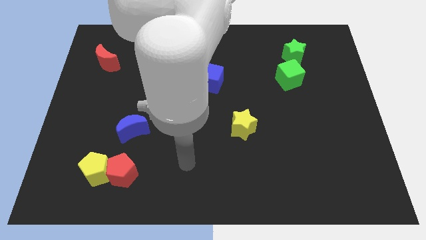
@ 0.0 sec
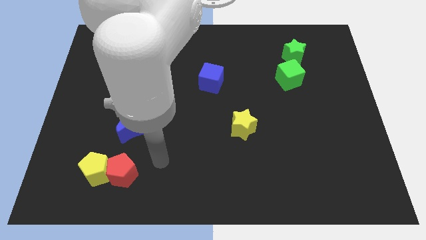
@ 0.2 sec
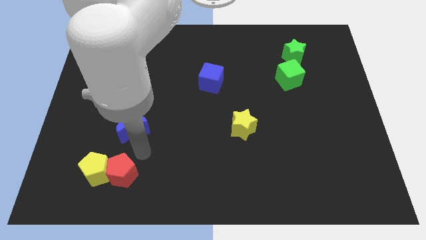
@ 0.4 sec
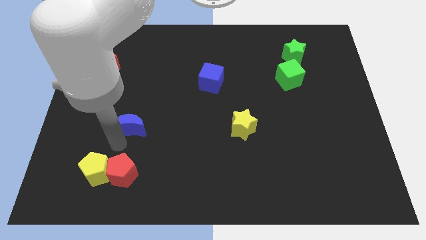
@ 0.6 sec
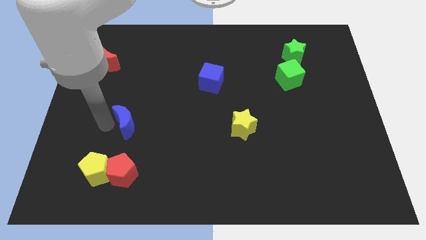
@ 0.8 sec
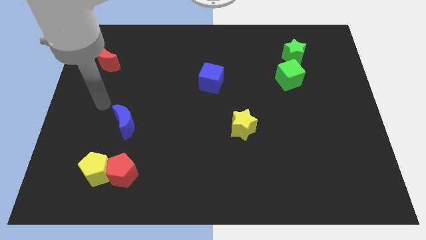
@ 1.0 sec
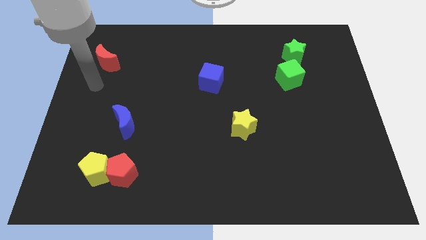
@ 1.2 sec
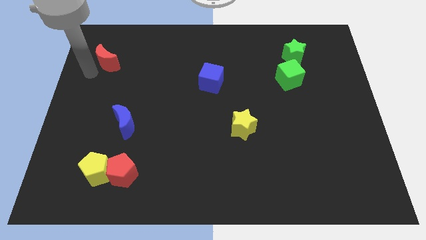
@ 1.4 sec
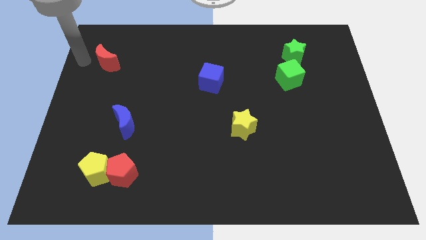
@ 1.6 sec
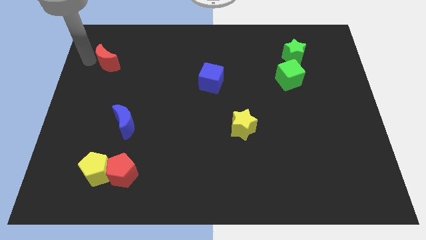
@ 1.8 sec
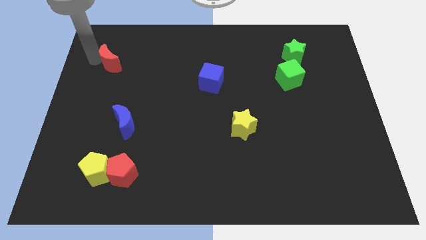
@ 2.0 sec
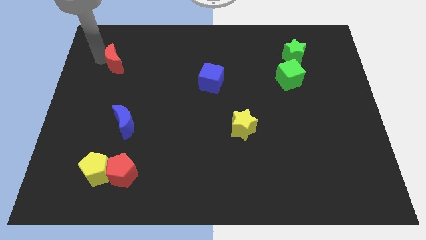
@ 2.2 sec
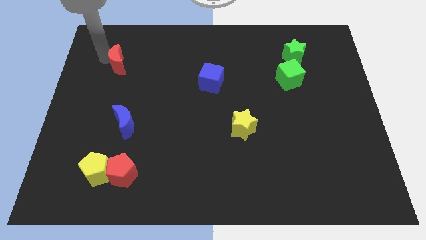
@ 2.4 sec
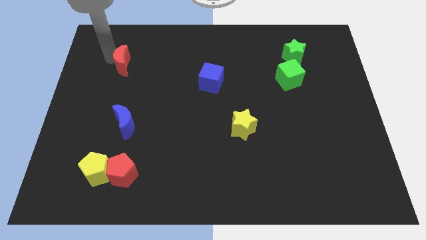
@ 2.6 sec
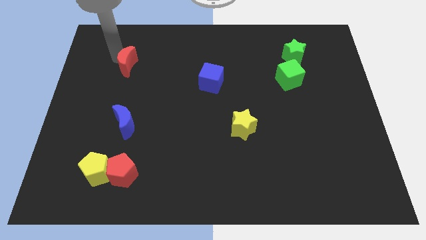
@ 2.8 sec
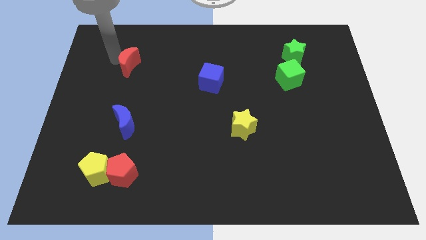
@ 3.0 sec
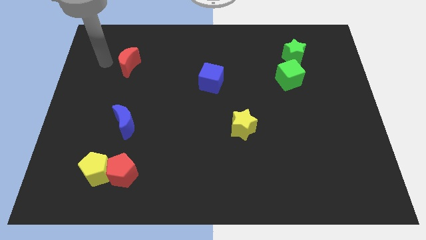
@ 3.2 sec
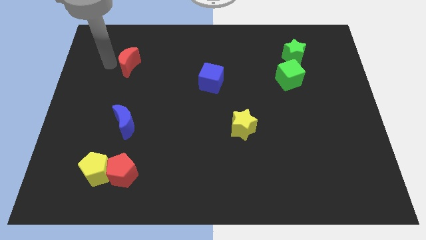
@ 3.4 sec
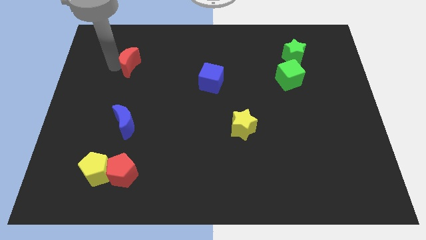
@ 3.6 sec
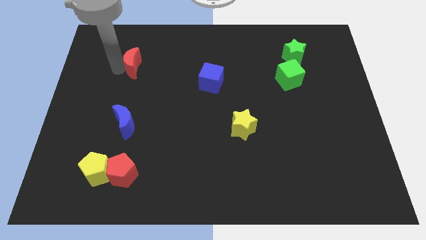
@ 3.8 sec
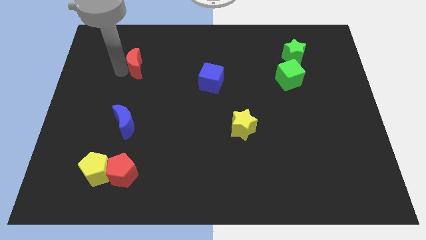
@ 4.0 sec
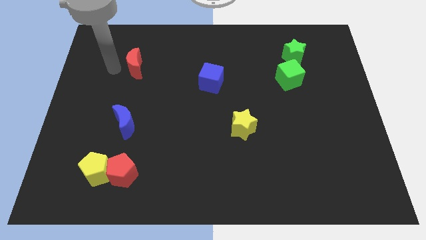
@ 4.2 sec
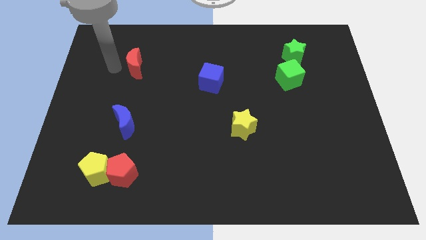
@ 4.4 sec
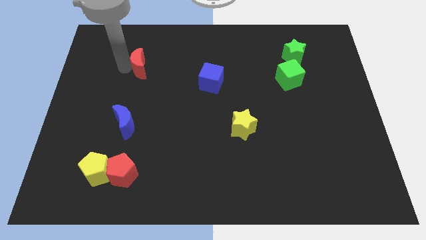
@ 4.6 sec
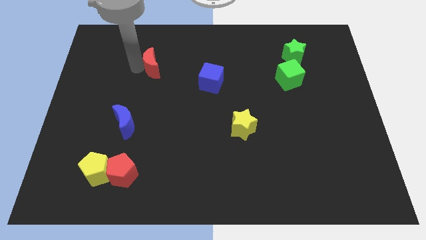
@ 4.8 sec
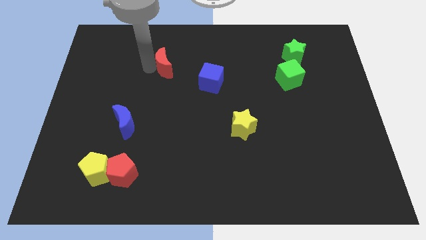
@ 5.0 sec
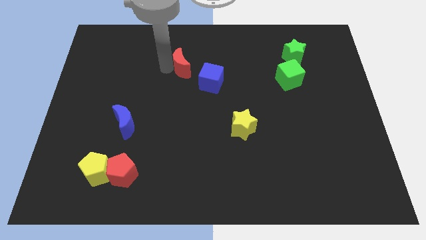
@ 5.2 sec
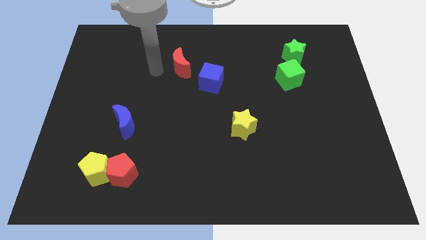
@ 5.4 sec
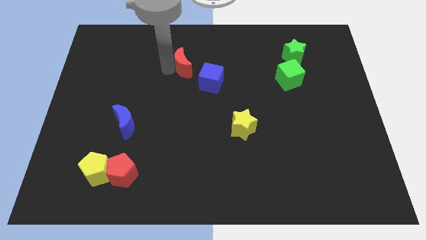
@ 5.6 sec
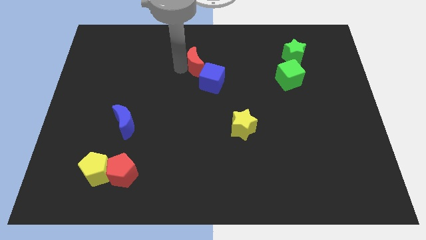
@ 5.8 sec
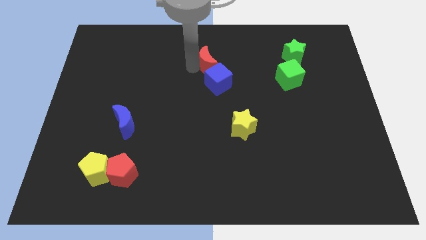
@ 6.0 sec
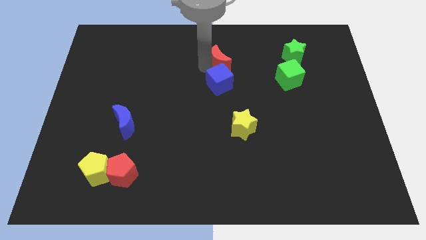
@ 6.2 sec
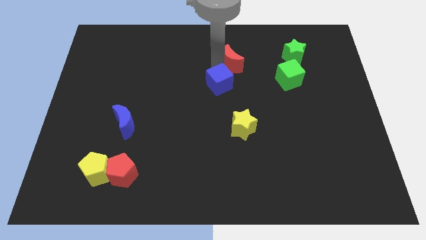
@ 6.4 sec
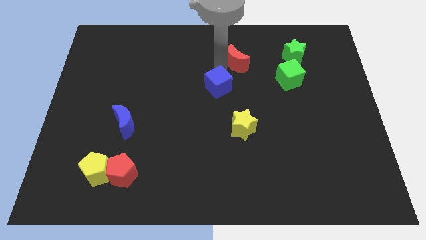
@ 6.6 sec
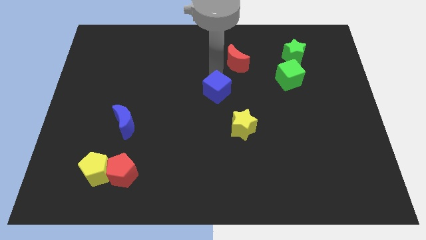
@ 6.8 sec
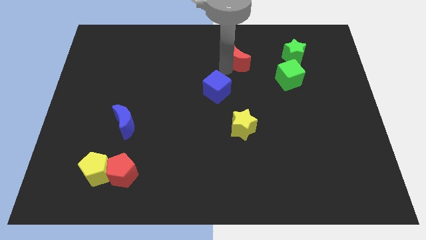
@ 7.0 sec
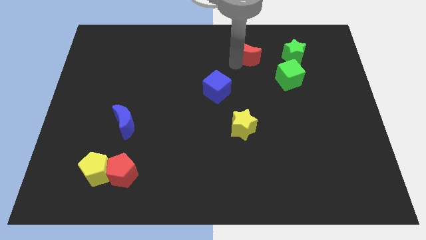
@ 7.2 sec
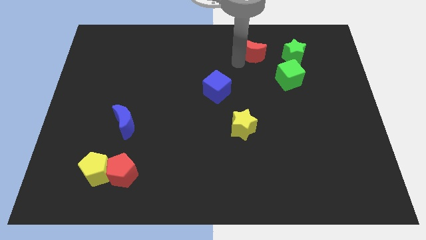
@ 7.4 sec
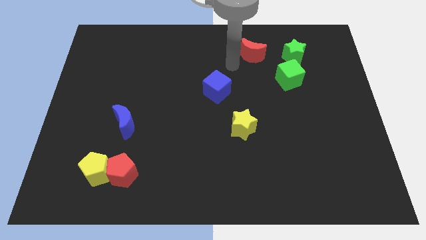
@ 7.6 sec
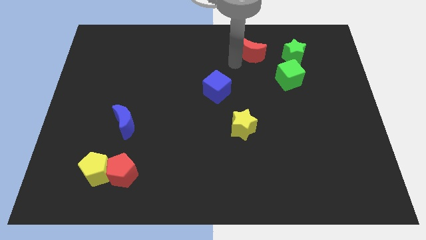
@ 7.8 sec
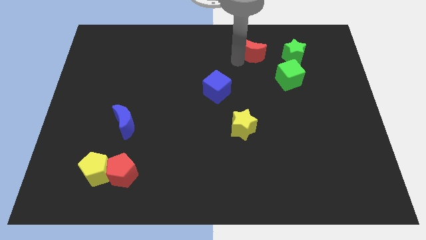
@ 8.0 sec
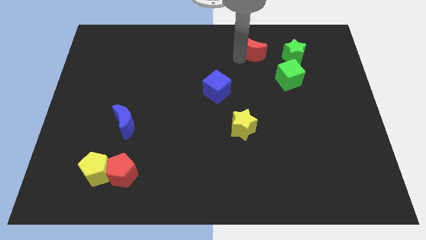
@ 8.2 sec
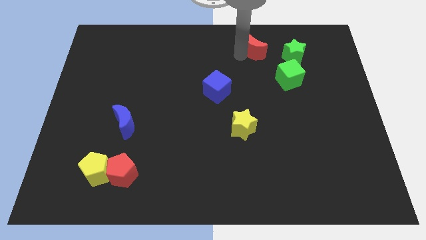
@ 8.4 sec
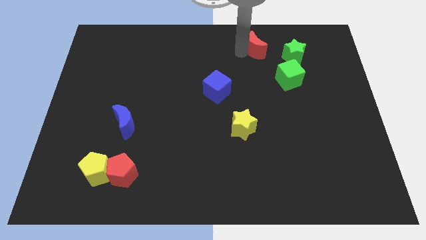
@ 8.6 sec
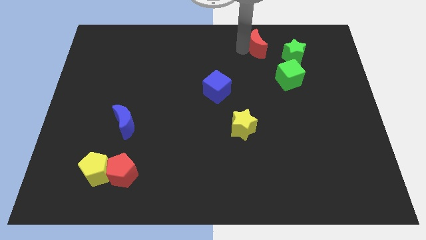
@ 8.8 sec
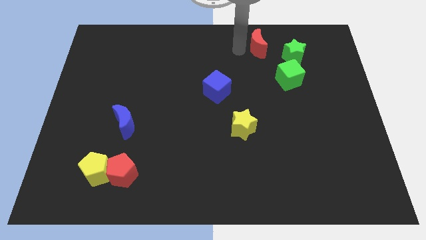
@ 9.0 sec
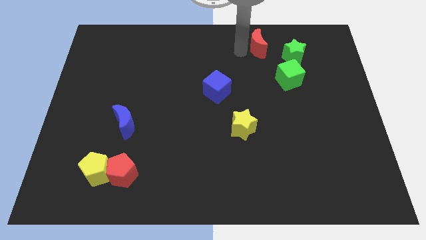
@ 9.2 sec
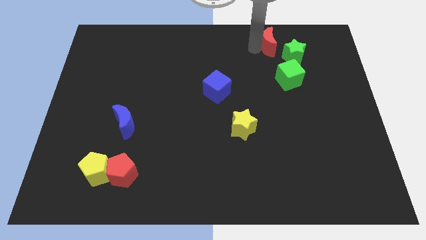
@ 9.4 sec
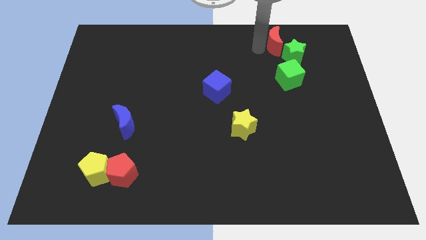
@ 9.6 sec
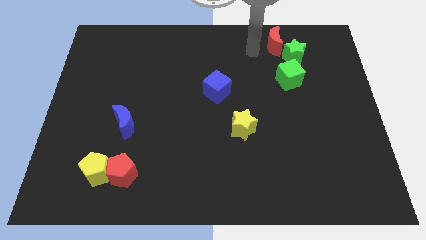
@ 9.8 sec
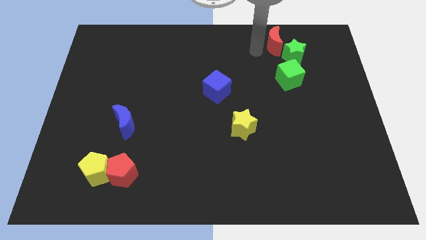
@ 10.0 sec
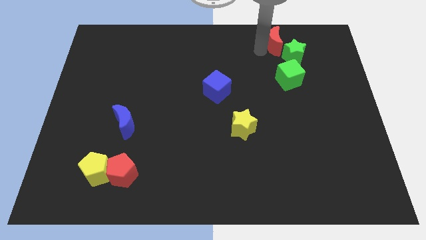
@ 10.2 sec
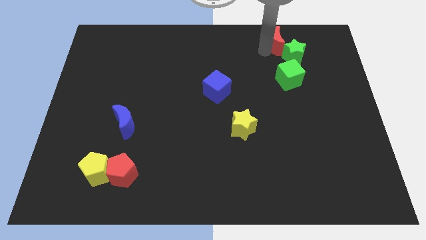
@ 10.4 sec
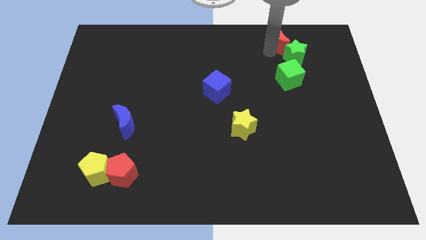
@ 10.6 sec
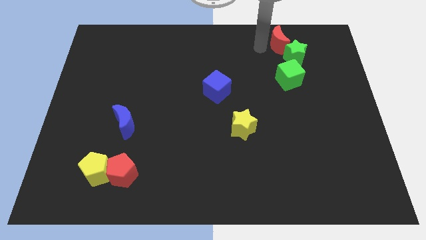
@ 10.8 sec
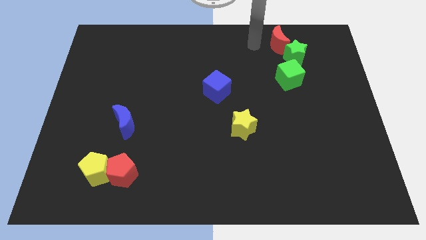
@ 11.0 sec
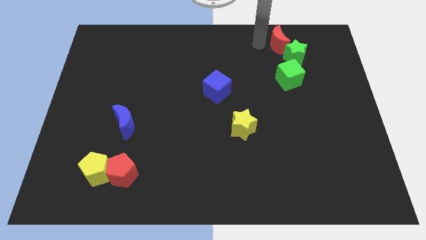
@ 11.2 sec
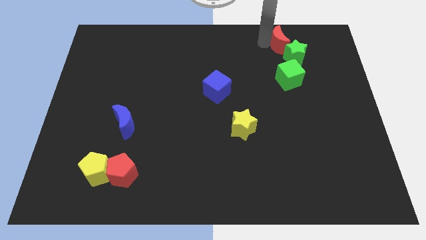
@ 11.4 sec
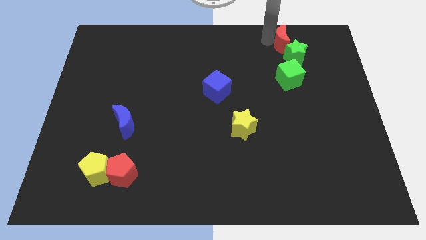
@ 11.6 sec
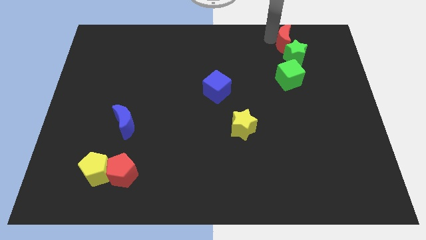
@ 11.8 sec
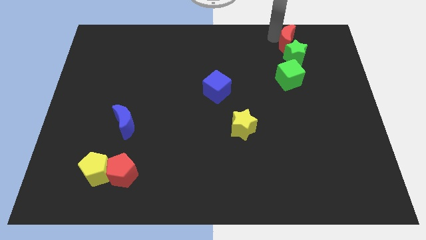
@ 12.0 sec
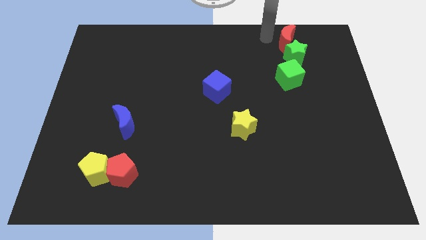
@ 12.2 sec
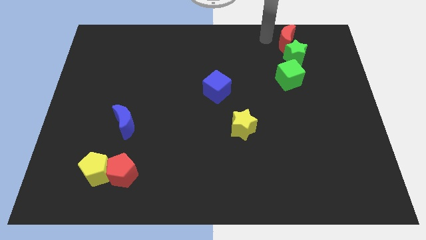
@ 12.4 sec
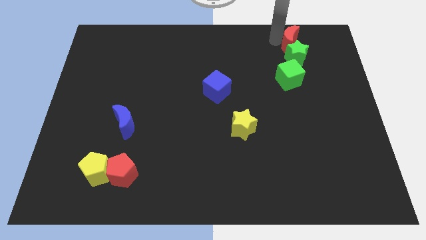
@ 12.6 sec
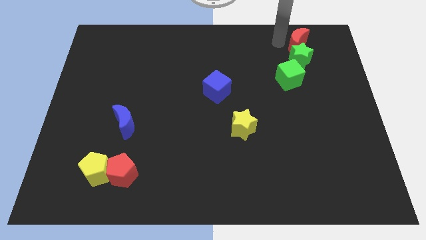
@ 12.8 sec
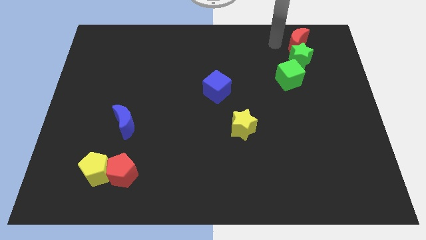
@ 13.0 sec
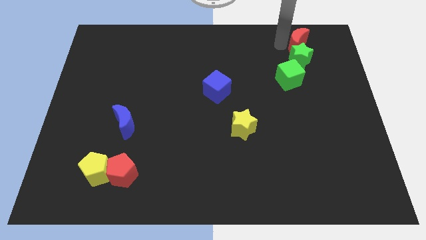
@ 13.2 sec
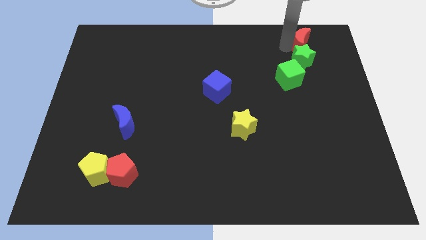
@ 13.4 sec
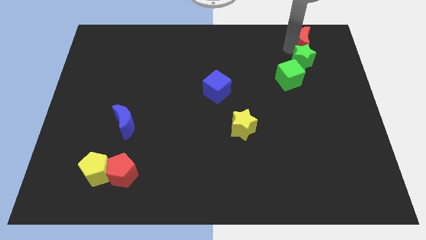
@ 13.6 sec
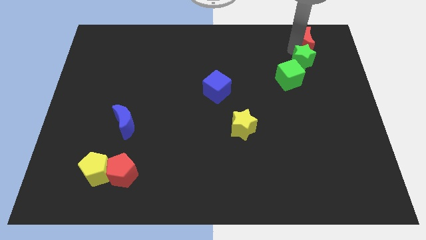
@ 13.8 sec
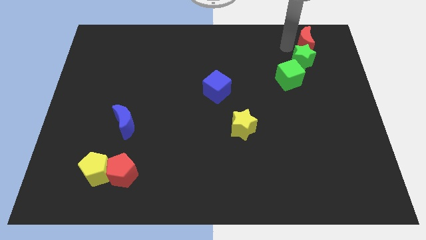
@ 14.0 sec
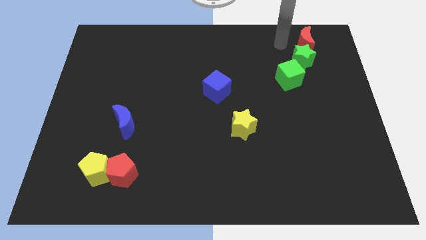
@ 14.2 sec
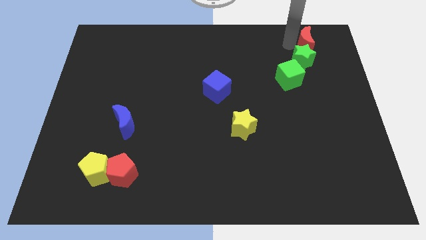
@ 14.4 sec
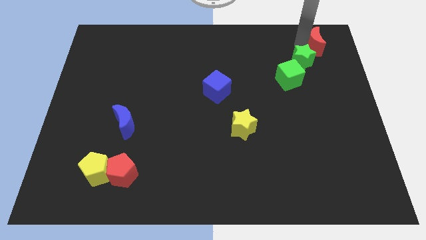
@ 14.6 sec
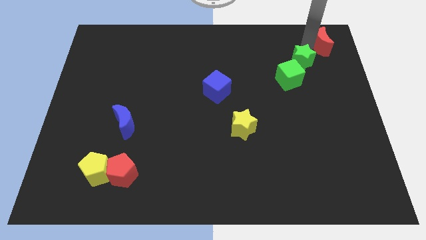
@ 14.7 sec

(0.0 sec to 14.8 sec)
push the red moon to the top right corner
